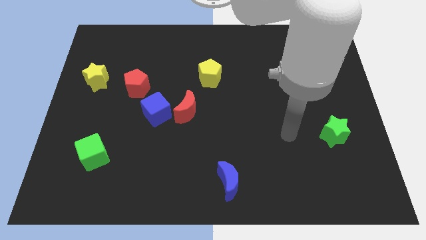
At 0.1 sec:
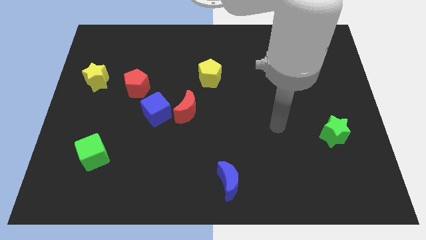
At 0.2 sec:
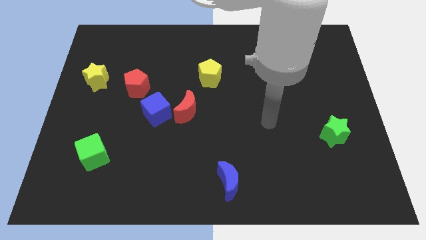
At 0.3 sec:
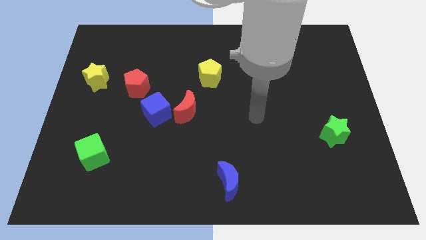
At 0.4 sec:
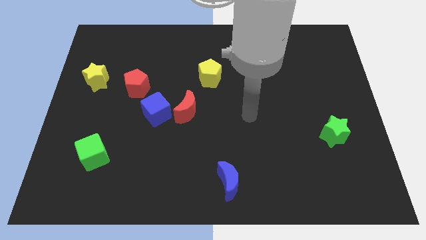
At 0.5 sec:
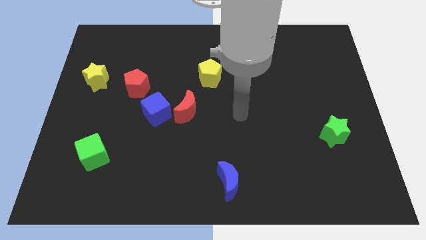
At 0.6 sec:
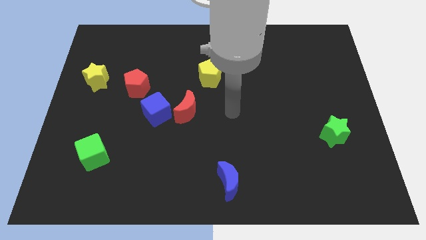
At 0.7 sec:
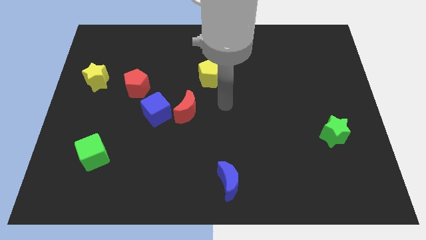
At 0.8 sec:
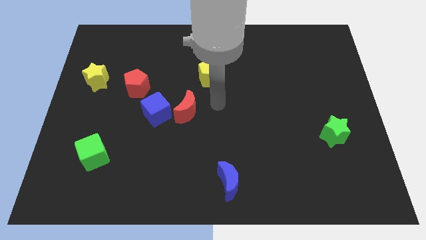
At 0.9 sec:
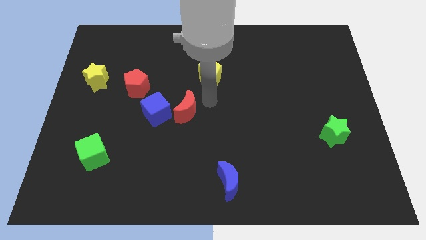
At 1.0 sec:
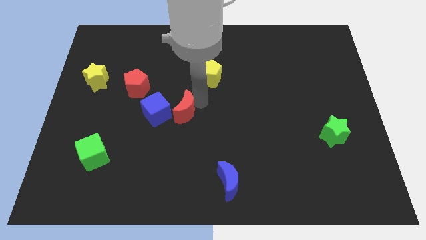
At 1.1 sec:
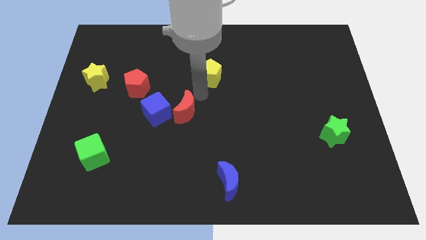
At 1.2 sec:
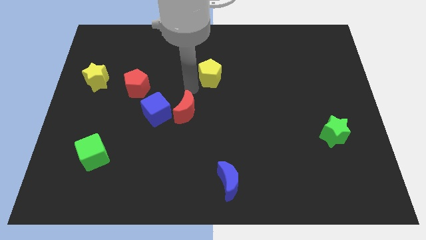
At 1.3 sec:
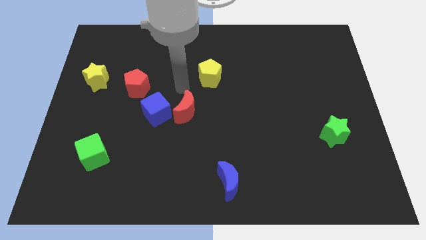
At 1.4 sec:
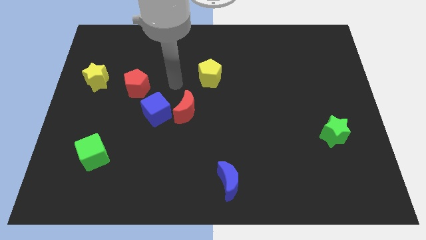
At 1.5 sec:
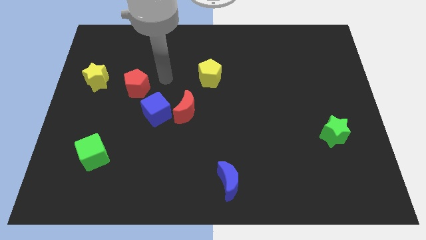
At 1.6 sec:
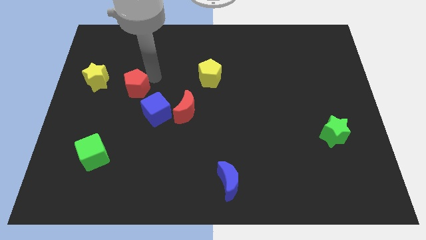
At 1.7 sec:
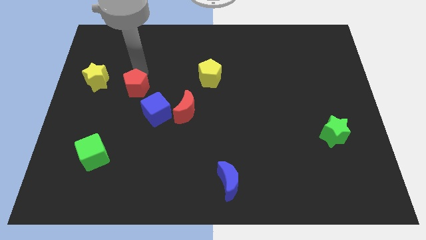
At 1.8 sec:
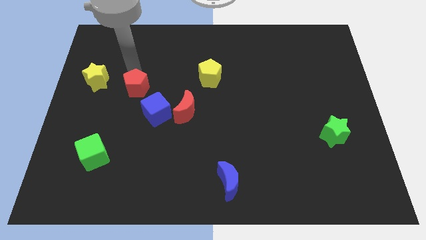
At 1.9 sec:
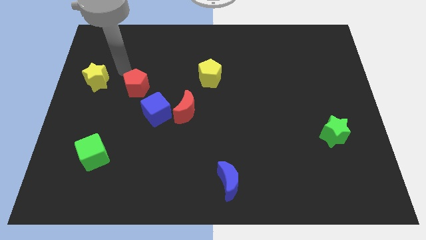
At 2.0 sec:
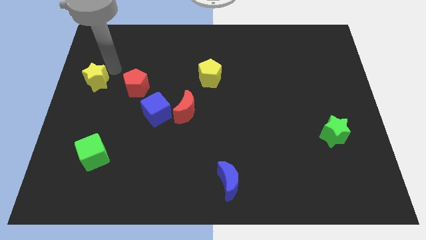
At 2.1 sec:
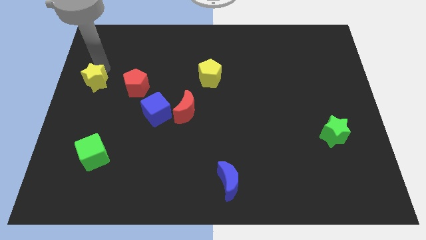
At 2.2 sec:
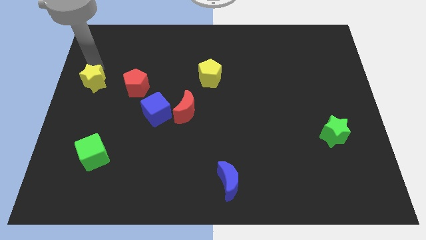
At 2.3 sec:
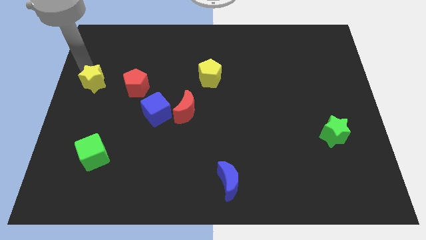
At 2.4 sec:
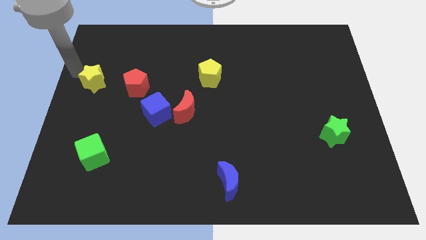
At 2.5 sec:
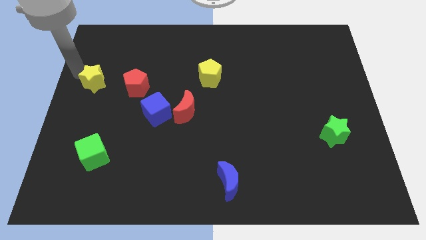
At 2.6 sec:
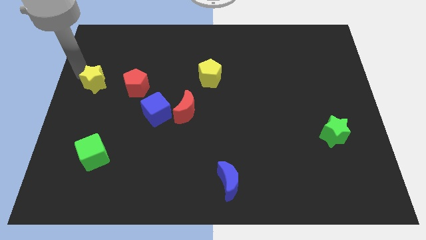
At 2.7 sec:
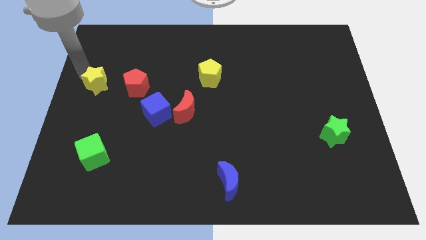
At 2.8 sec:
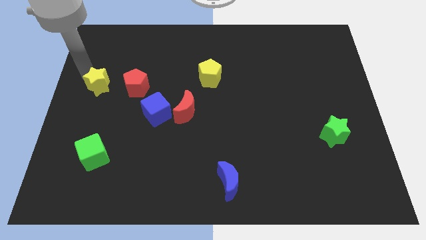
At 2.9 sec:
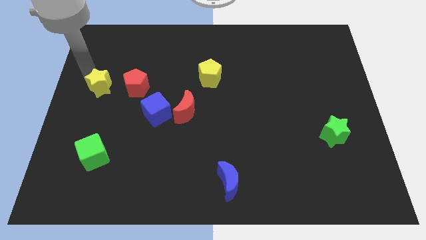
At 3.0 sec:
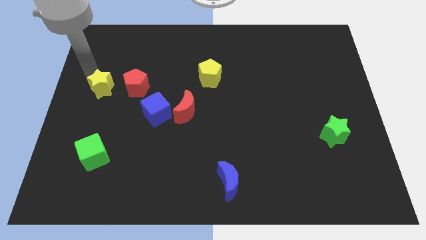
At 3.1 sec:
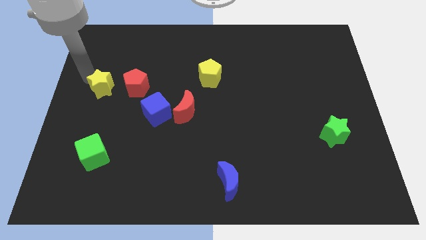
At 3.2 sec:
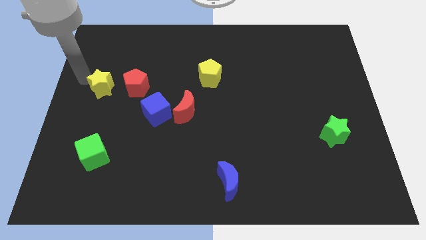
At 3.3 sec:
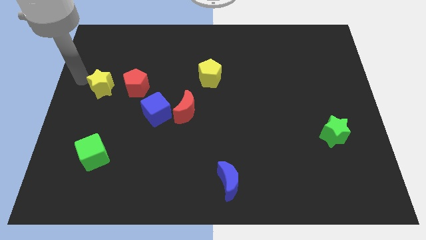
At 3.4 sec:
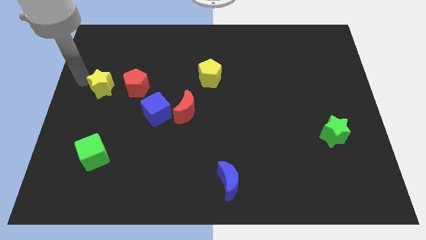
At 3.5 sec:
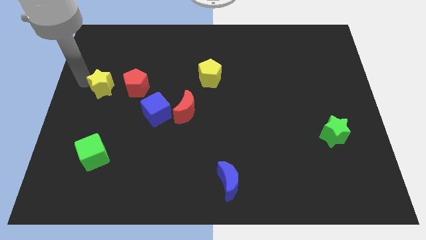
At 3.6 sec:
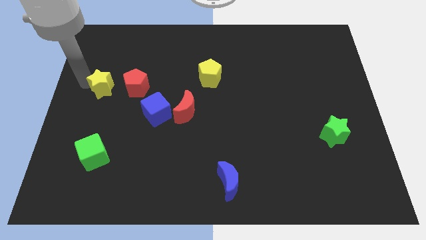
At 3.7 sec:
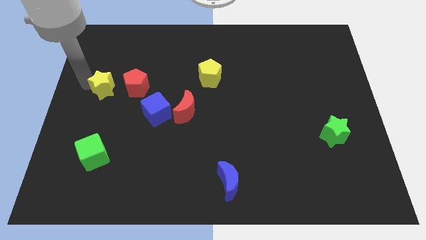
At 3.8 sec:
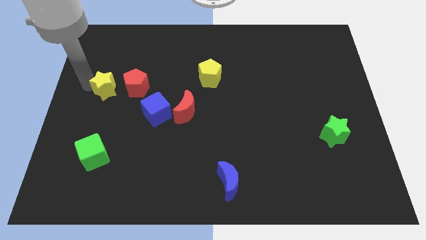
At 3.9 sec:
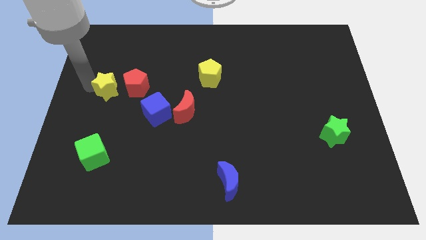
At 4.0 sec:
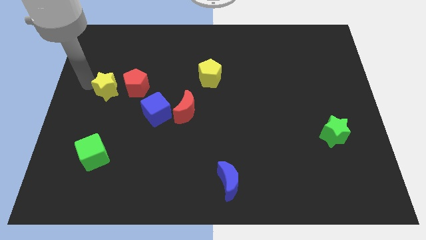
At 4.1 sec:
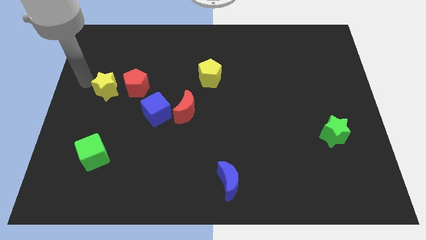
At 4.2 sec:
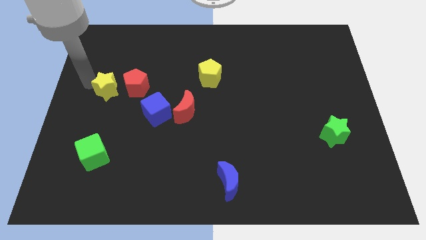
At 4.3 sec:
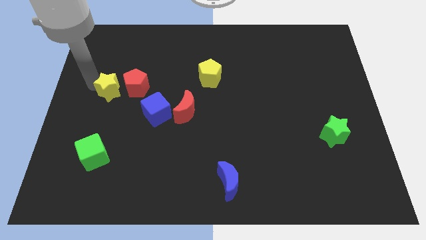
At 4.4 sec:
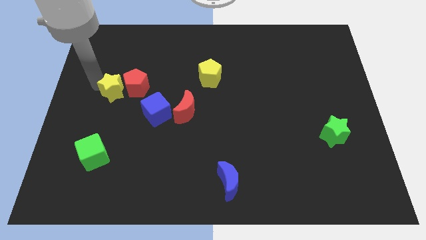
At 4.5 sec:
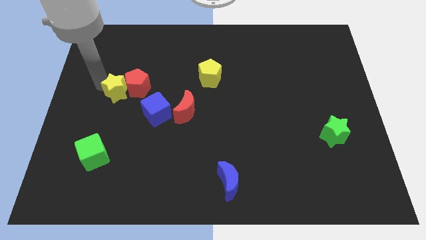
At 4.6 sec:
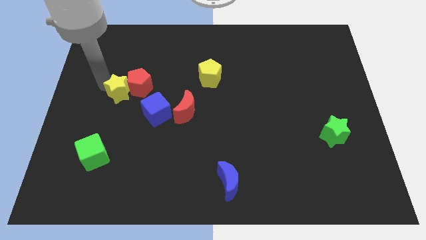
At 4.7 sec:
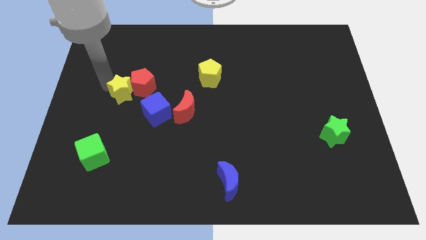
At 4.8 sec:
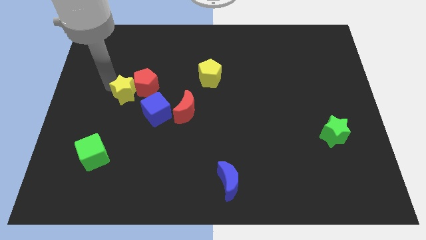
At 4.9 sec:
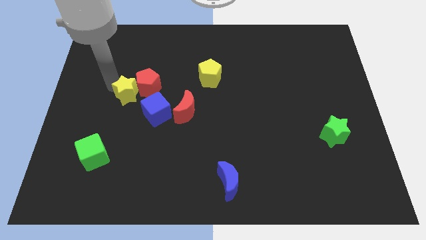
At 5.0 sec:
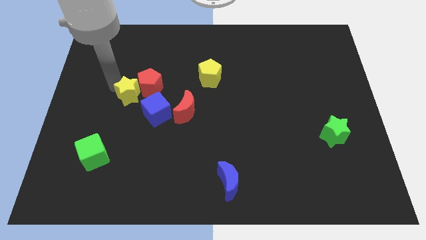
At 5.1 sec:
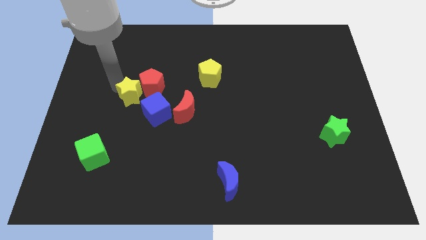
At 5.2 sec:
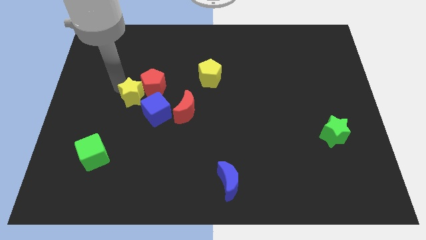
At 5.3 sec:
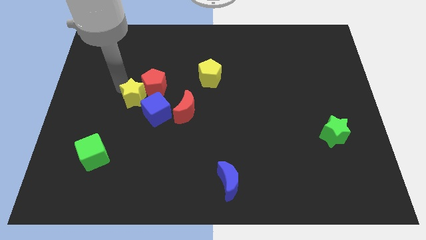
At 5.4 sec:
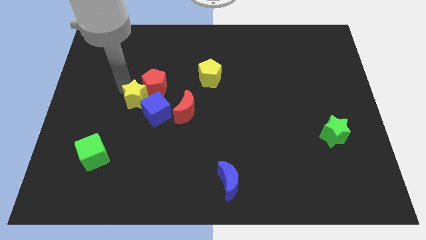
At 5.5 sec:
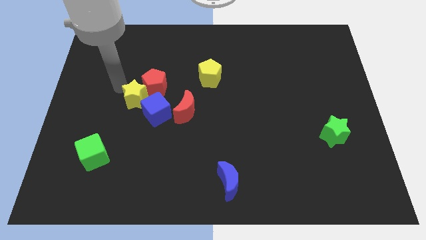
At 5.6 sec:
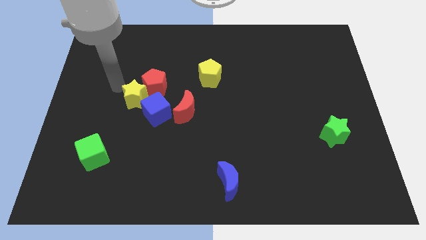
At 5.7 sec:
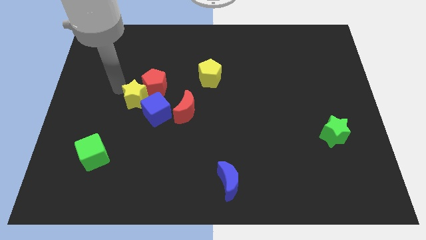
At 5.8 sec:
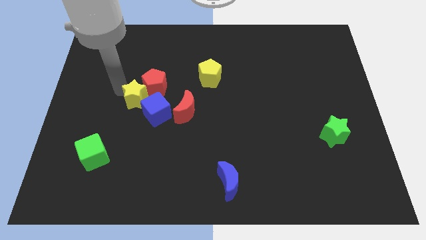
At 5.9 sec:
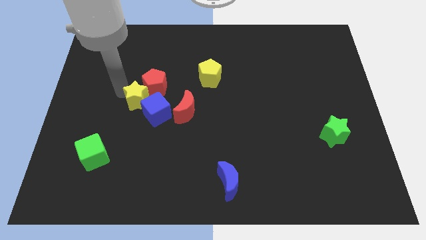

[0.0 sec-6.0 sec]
push the yellow star to the blue cube

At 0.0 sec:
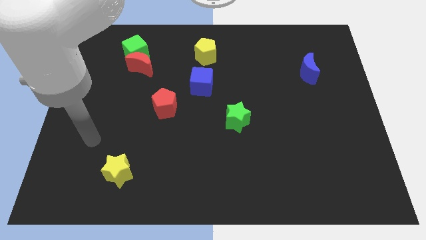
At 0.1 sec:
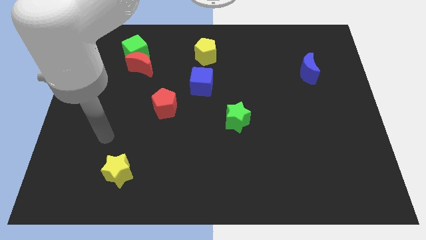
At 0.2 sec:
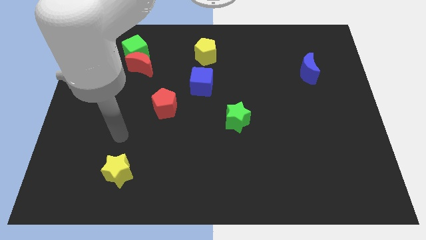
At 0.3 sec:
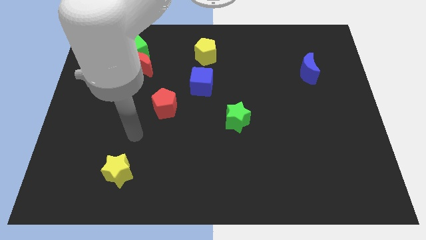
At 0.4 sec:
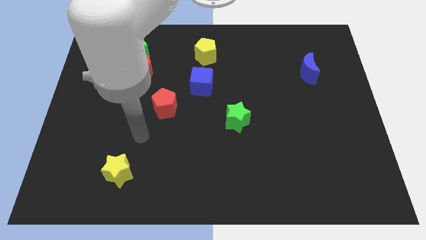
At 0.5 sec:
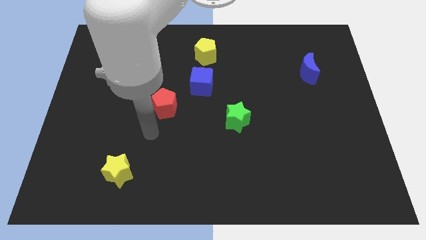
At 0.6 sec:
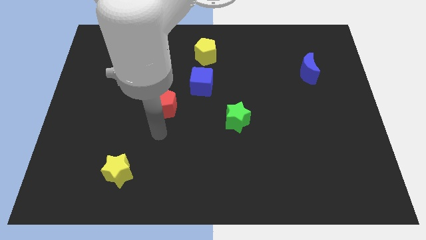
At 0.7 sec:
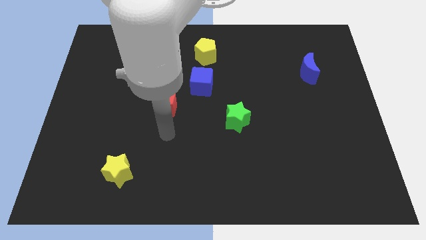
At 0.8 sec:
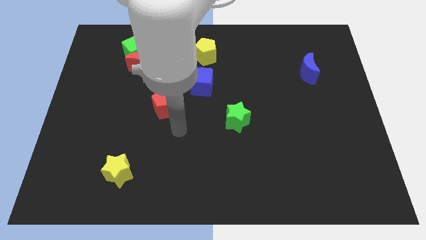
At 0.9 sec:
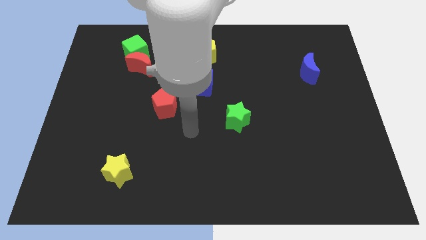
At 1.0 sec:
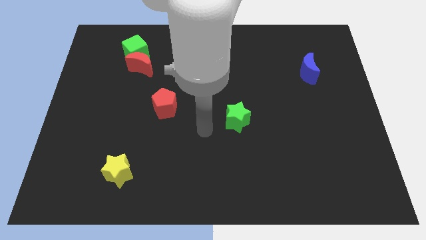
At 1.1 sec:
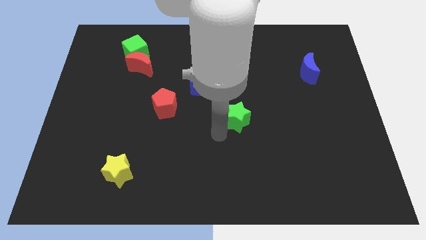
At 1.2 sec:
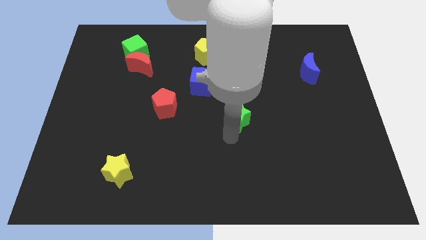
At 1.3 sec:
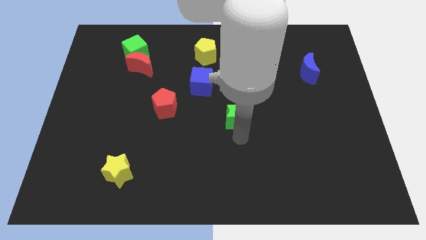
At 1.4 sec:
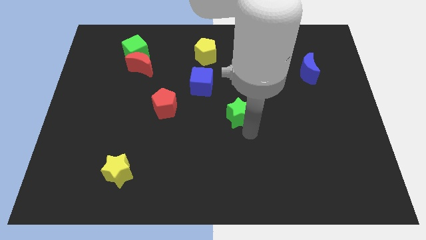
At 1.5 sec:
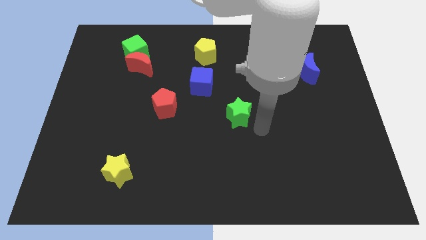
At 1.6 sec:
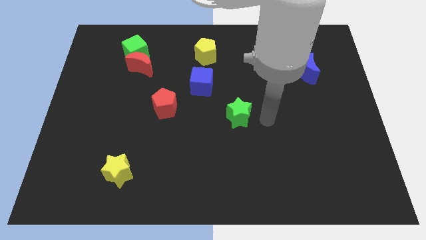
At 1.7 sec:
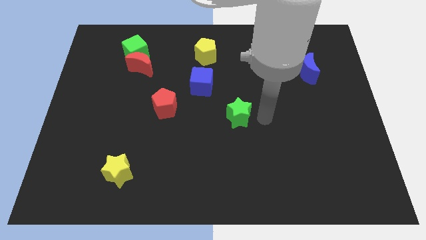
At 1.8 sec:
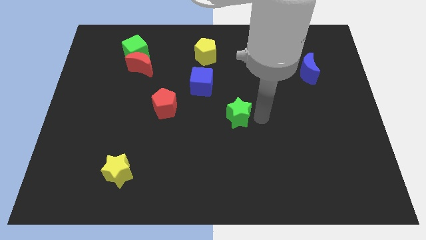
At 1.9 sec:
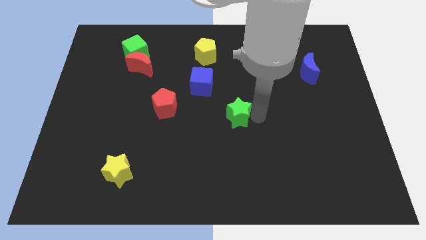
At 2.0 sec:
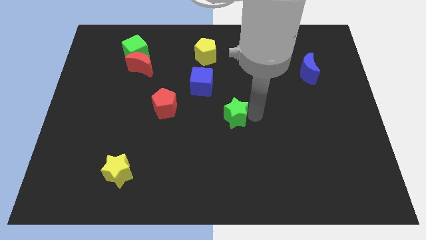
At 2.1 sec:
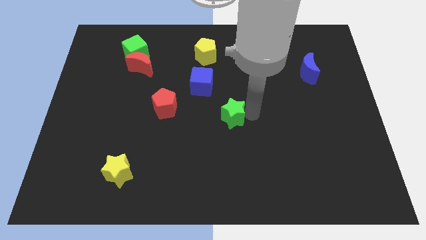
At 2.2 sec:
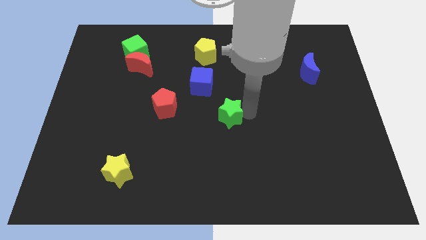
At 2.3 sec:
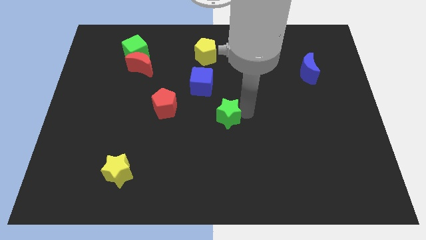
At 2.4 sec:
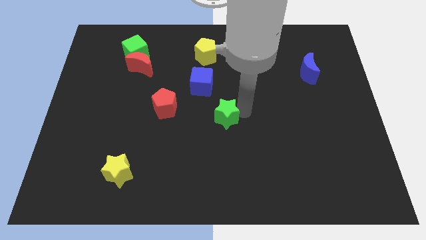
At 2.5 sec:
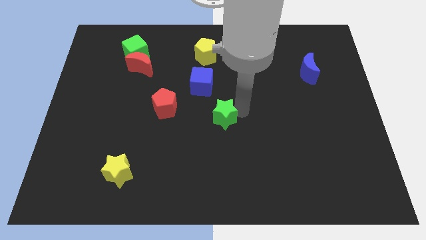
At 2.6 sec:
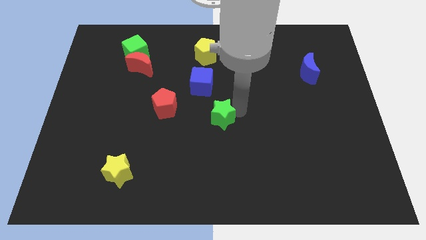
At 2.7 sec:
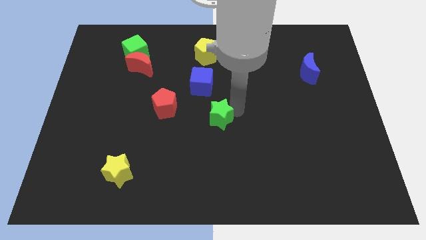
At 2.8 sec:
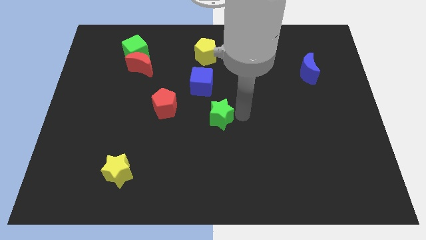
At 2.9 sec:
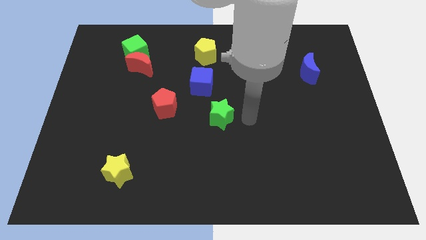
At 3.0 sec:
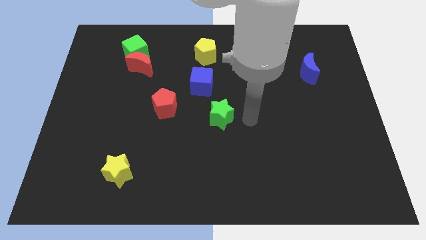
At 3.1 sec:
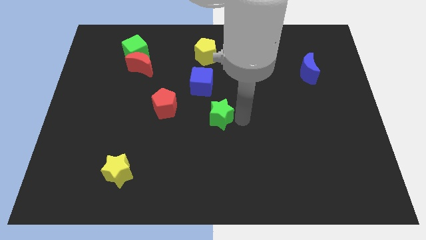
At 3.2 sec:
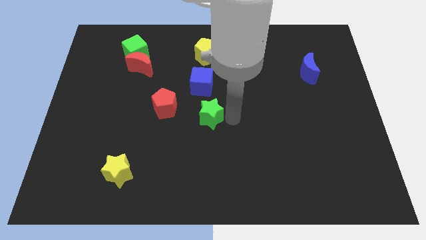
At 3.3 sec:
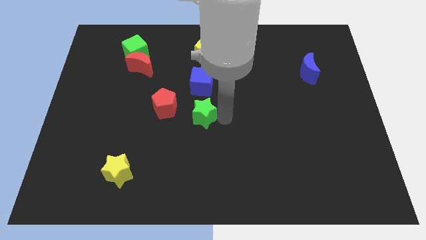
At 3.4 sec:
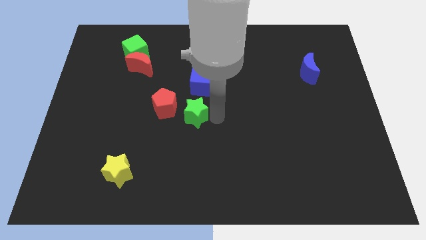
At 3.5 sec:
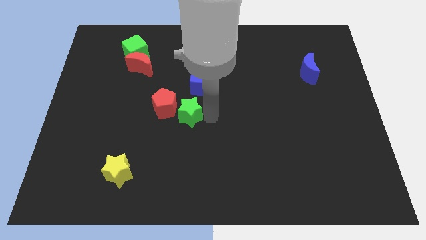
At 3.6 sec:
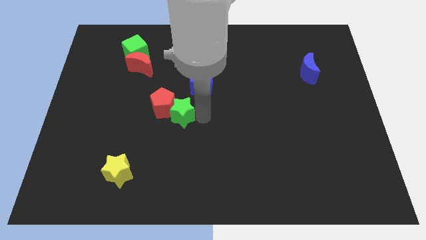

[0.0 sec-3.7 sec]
push the green star towards the red pentagon
